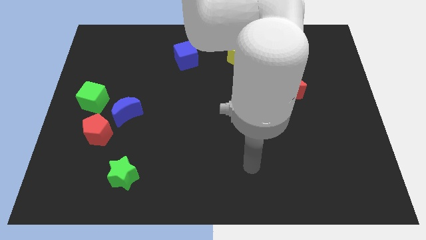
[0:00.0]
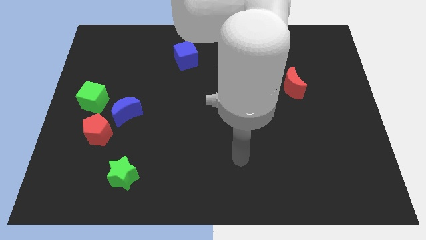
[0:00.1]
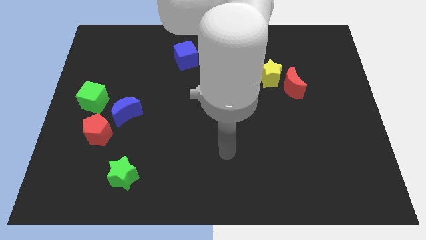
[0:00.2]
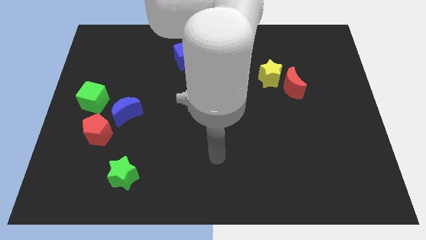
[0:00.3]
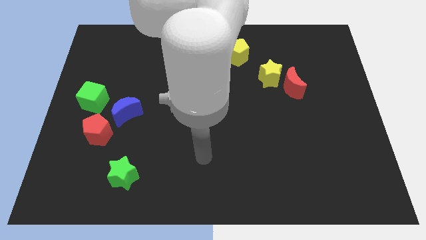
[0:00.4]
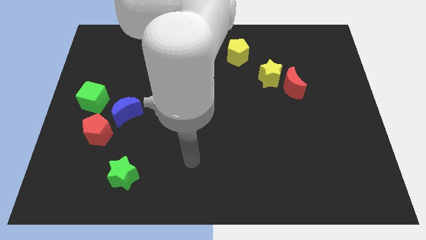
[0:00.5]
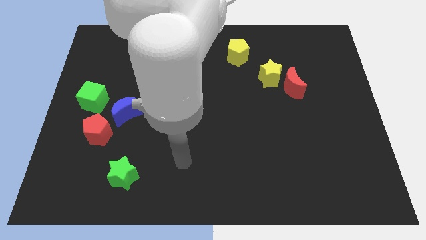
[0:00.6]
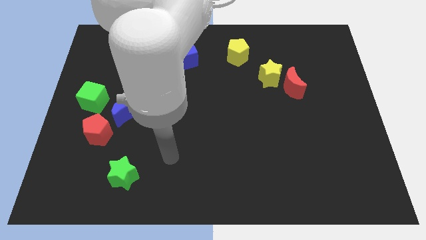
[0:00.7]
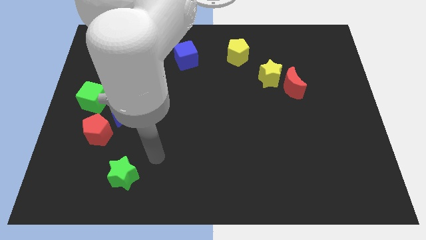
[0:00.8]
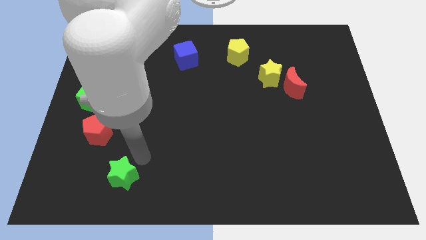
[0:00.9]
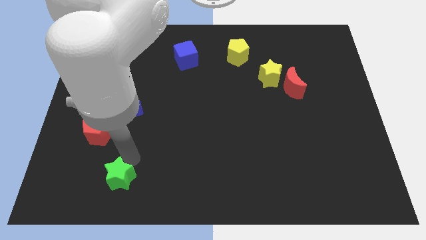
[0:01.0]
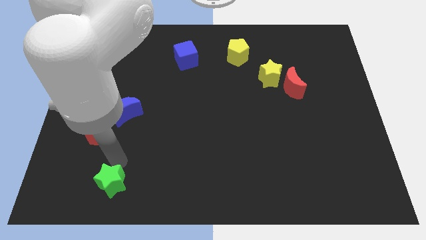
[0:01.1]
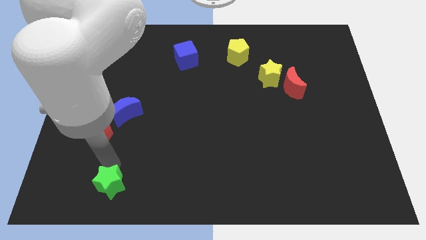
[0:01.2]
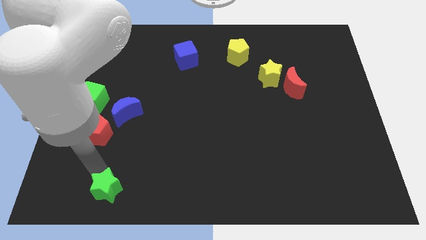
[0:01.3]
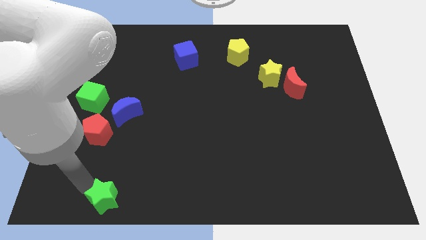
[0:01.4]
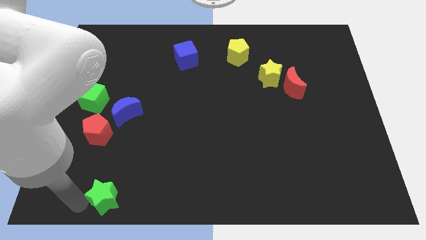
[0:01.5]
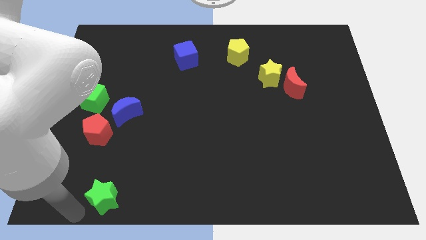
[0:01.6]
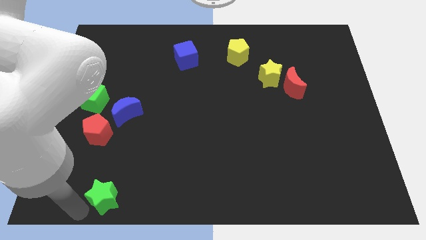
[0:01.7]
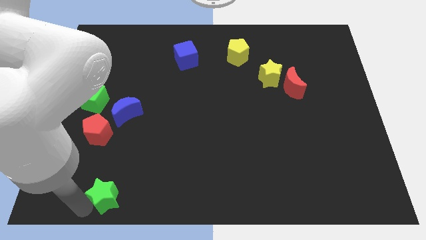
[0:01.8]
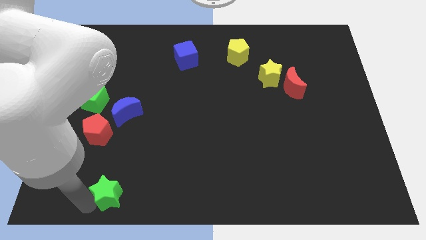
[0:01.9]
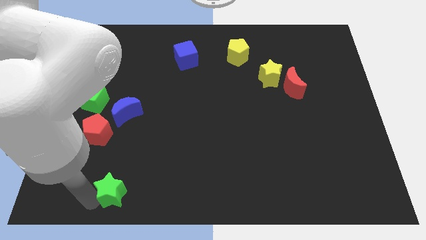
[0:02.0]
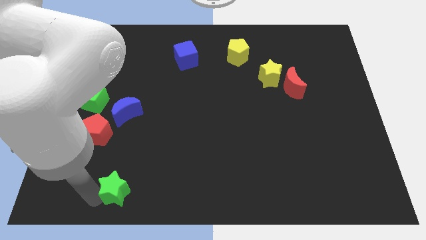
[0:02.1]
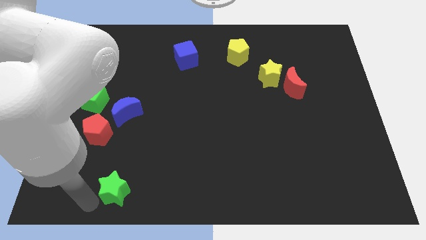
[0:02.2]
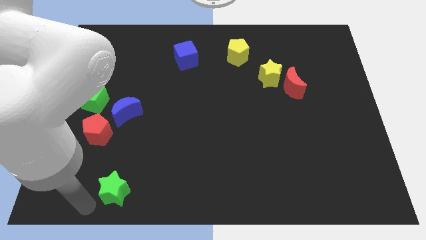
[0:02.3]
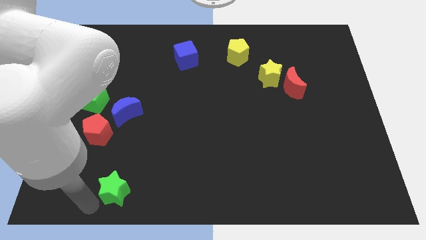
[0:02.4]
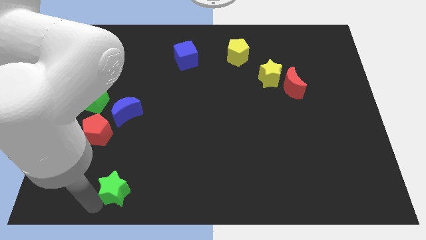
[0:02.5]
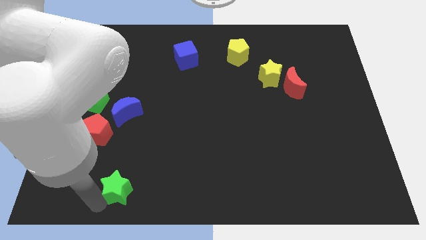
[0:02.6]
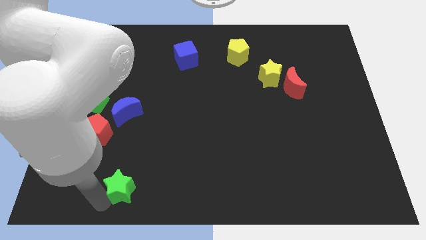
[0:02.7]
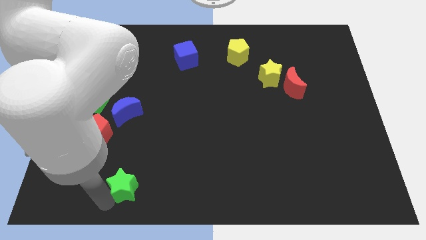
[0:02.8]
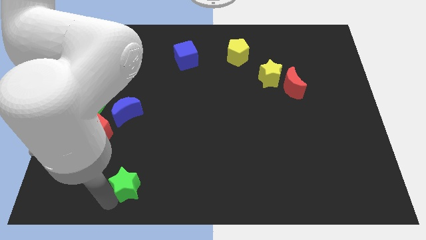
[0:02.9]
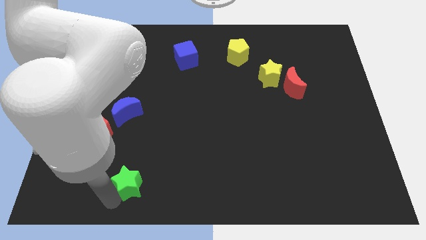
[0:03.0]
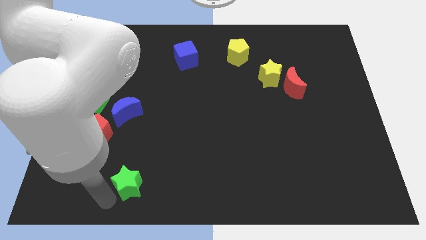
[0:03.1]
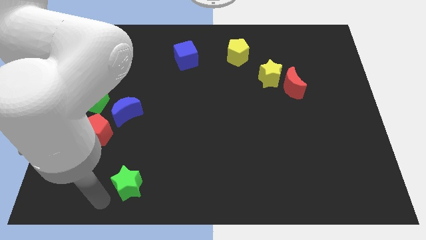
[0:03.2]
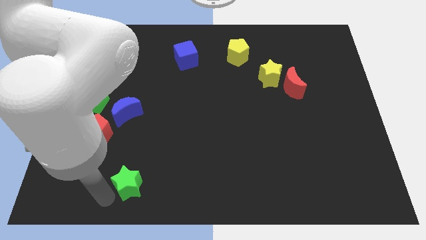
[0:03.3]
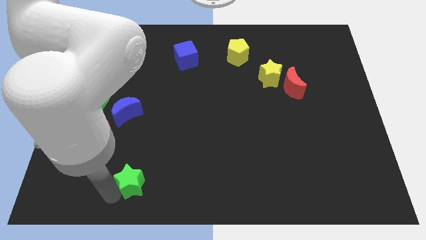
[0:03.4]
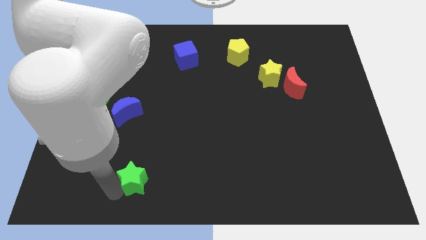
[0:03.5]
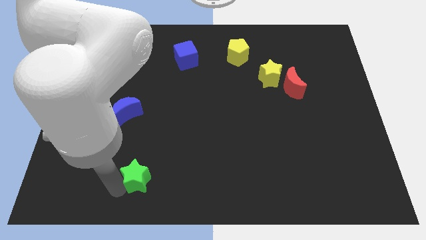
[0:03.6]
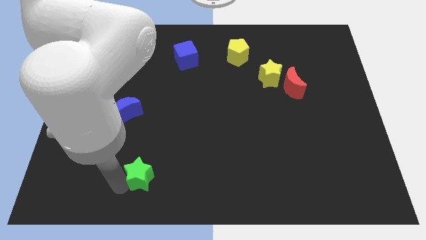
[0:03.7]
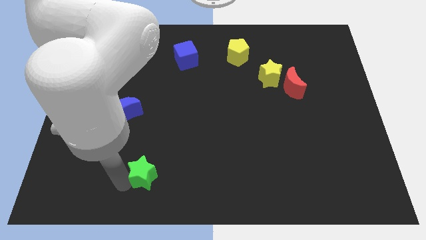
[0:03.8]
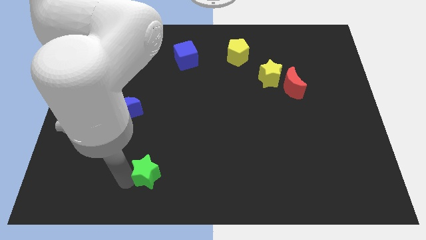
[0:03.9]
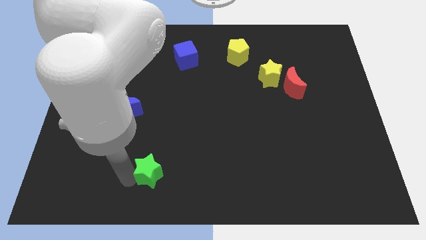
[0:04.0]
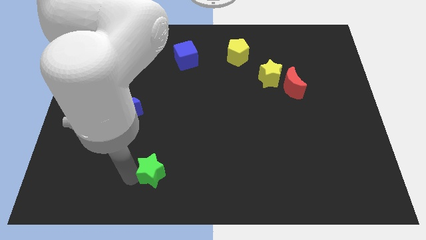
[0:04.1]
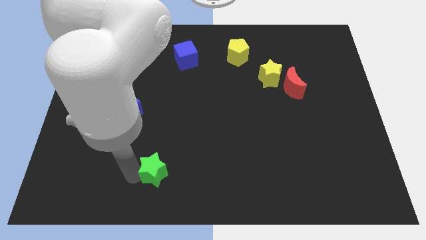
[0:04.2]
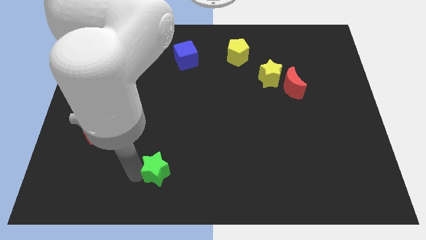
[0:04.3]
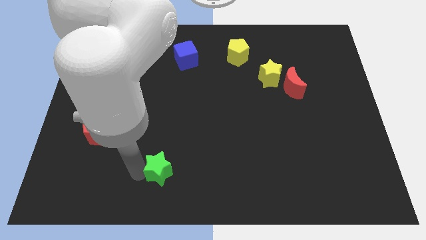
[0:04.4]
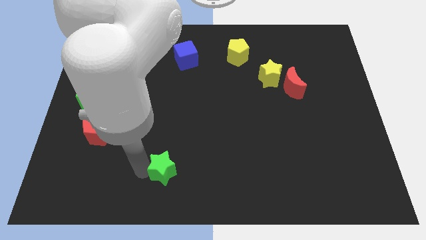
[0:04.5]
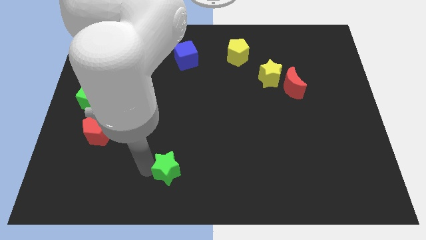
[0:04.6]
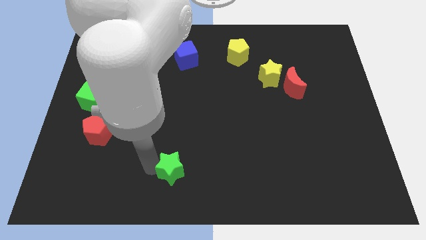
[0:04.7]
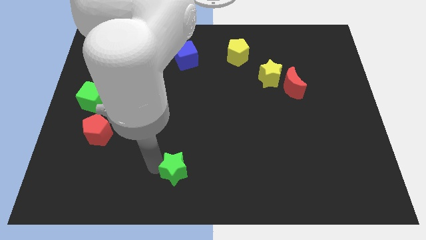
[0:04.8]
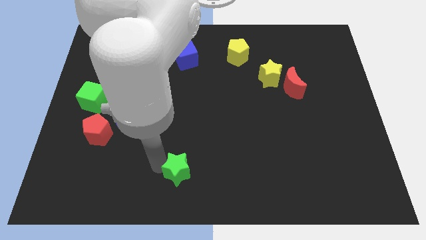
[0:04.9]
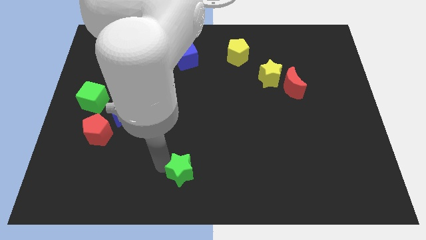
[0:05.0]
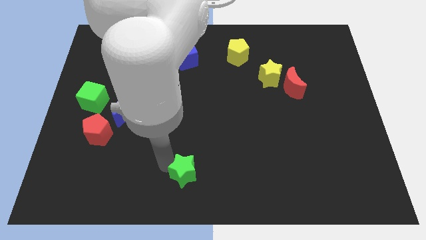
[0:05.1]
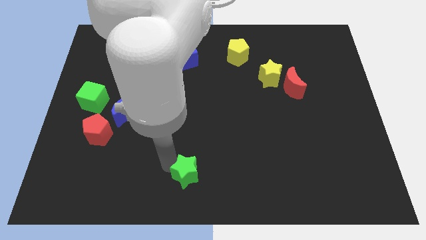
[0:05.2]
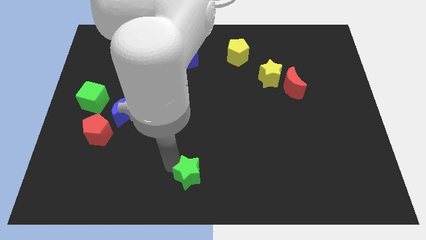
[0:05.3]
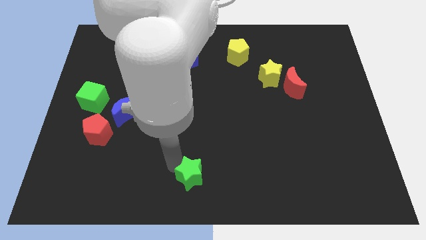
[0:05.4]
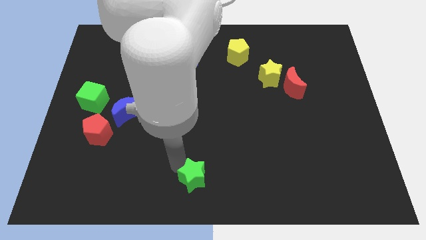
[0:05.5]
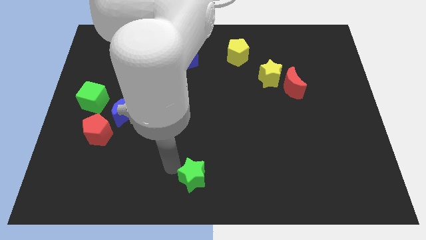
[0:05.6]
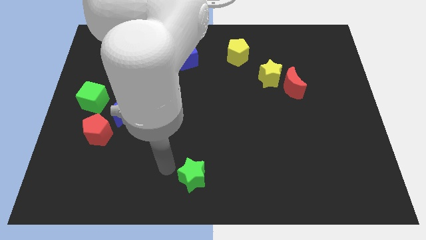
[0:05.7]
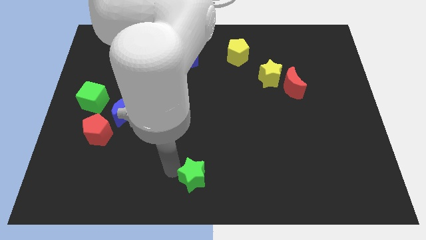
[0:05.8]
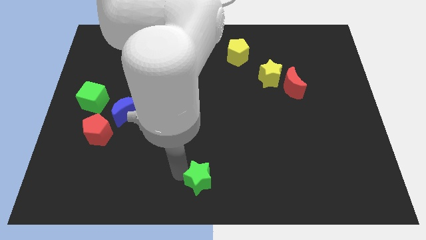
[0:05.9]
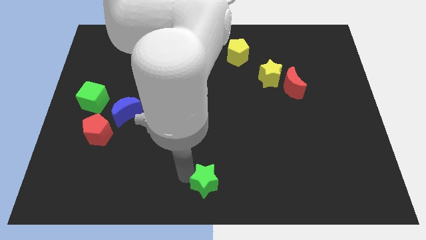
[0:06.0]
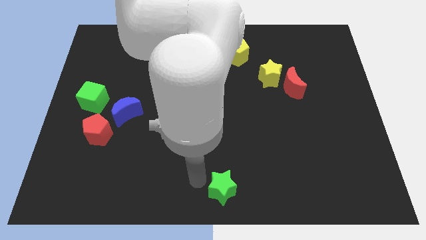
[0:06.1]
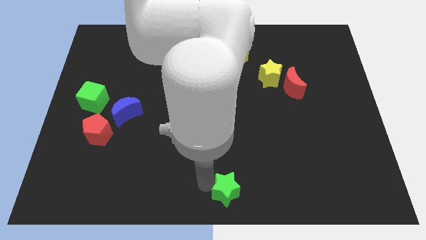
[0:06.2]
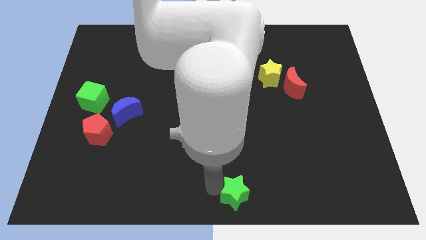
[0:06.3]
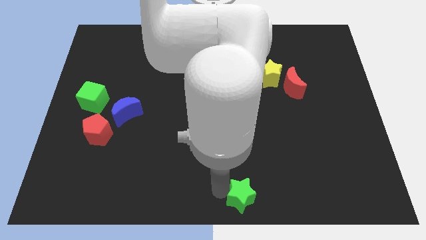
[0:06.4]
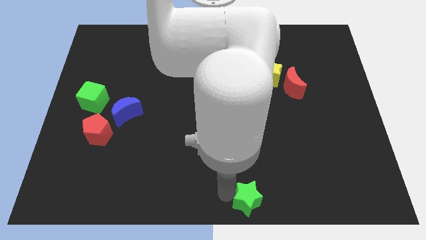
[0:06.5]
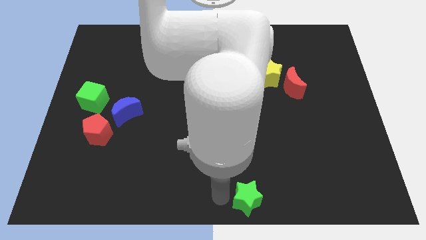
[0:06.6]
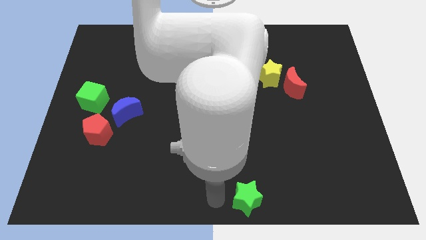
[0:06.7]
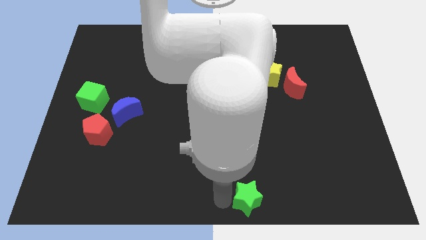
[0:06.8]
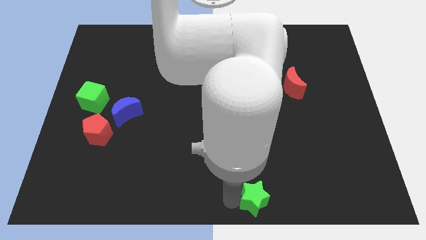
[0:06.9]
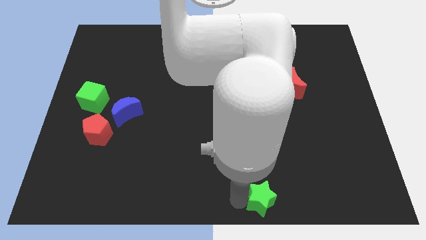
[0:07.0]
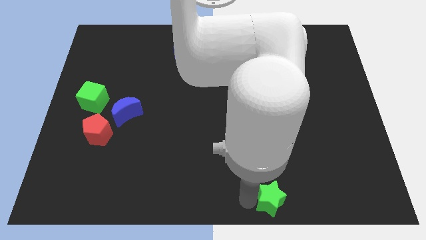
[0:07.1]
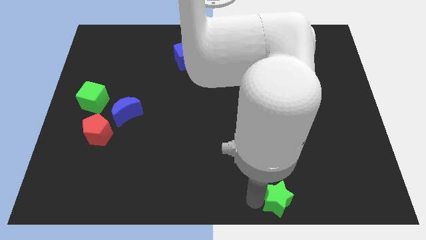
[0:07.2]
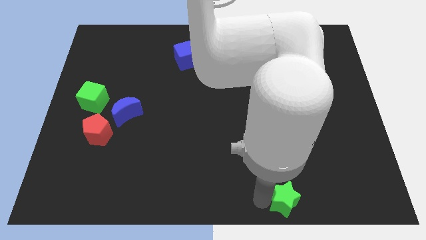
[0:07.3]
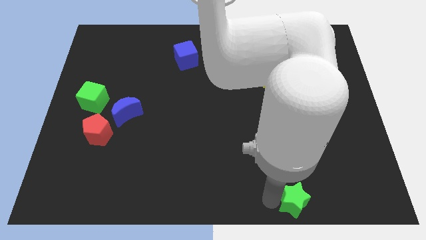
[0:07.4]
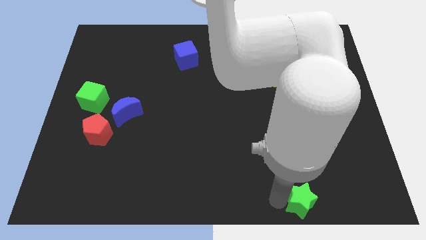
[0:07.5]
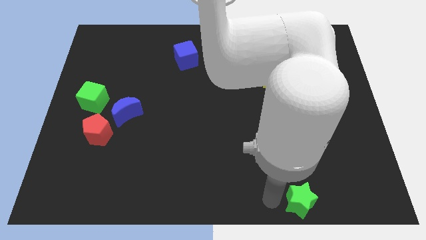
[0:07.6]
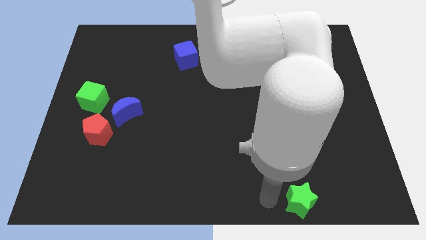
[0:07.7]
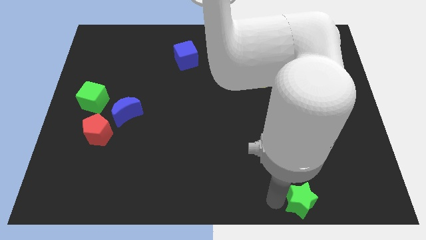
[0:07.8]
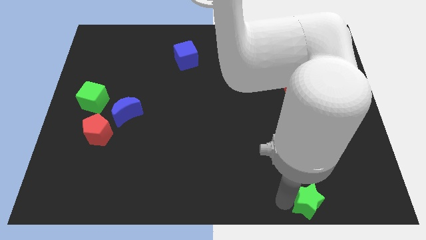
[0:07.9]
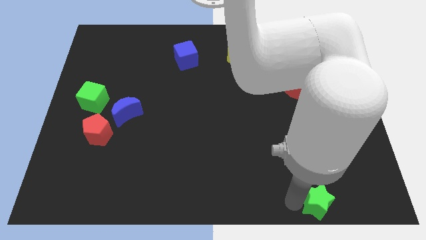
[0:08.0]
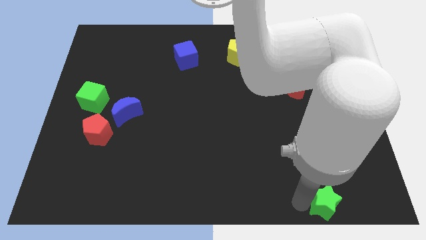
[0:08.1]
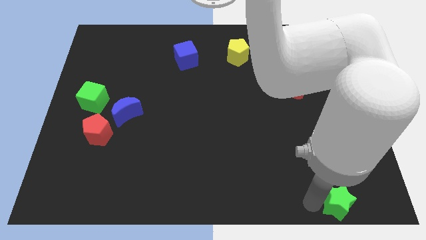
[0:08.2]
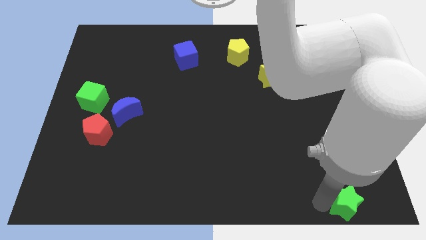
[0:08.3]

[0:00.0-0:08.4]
push the green star to the bottom right
